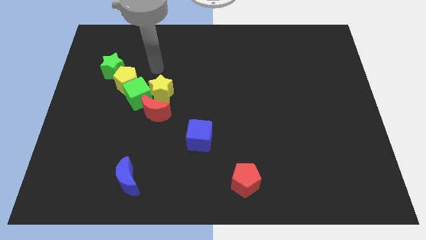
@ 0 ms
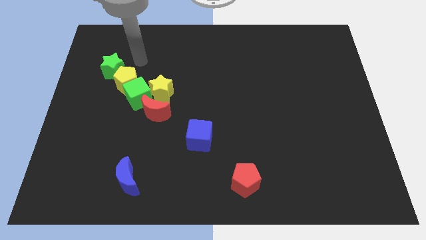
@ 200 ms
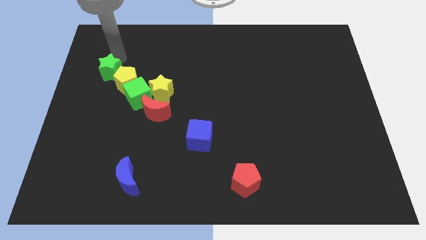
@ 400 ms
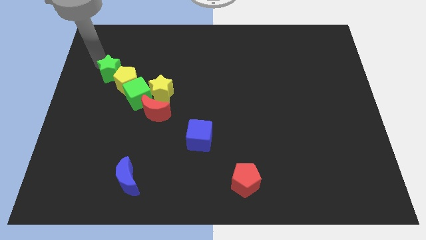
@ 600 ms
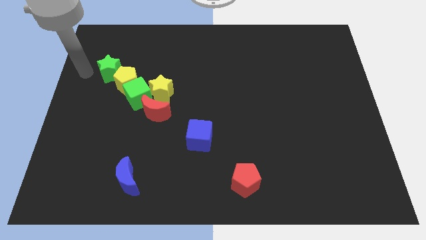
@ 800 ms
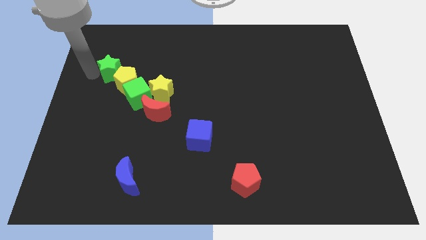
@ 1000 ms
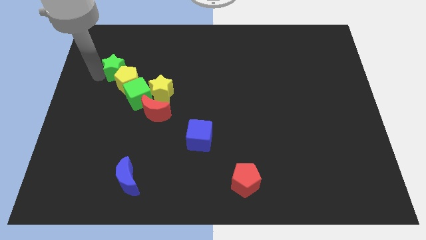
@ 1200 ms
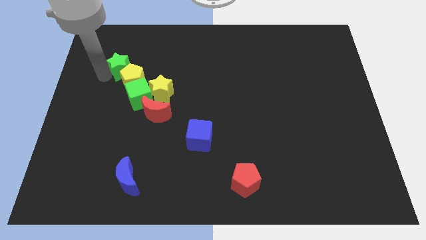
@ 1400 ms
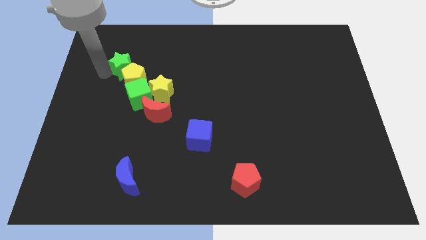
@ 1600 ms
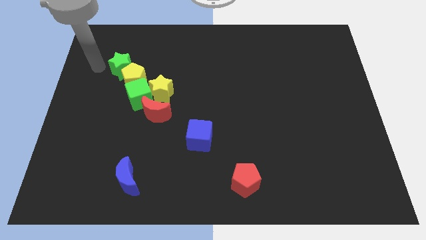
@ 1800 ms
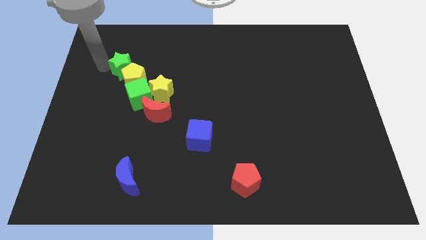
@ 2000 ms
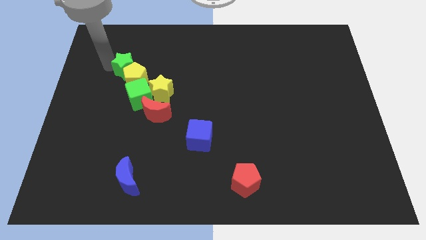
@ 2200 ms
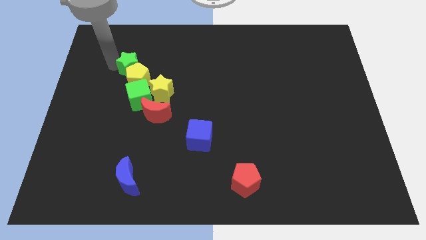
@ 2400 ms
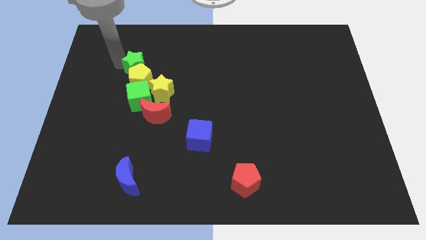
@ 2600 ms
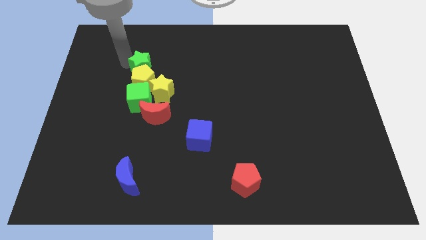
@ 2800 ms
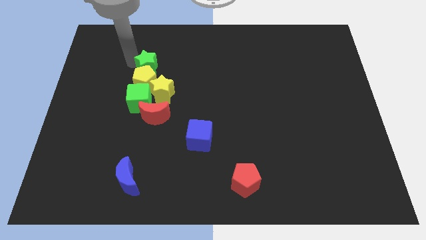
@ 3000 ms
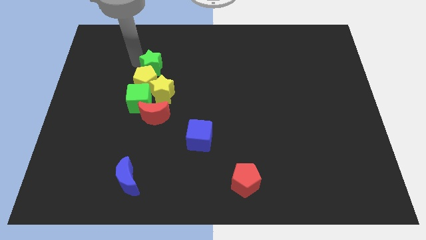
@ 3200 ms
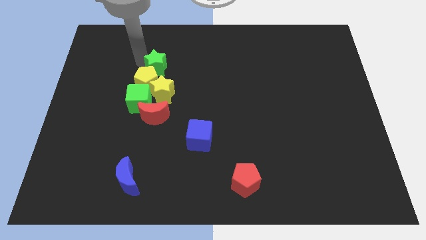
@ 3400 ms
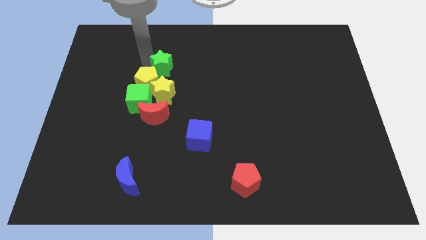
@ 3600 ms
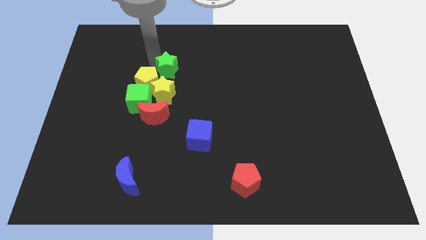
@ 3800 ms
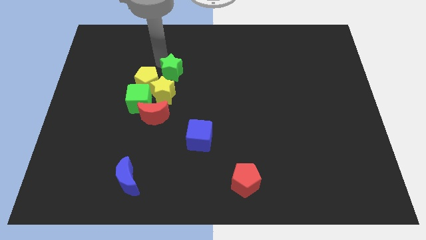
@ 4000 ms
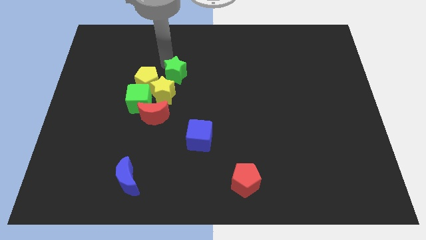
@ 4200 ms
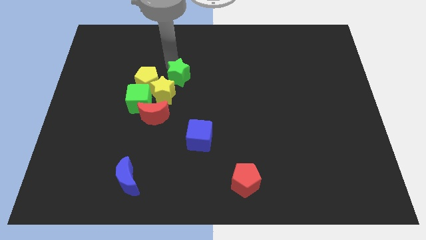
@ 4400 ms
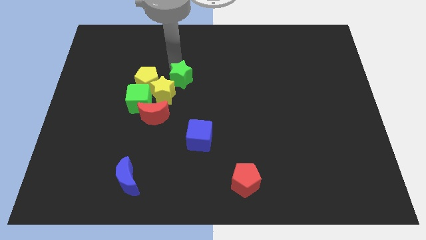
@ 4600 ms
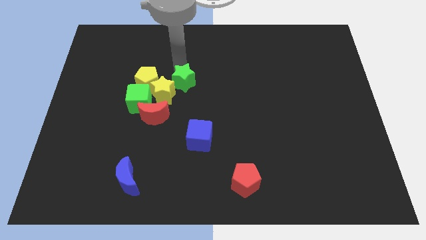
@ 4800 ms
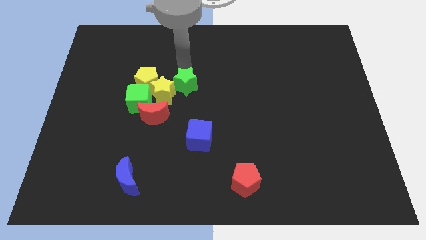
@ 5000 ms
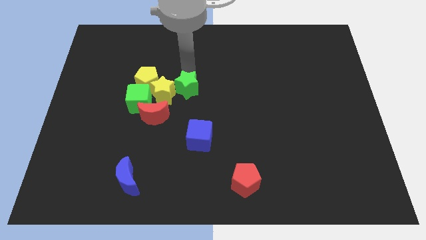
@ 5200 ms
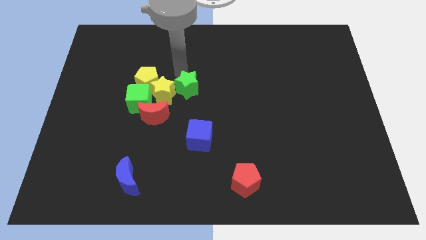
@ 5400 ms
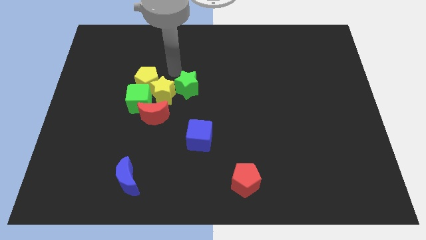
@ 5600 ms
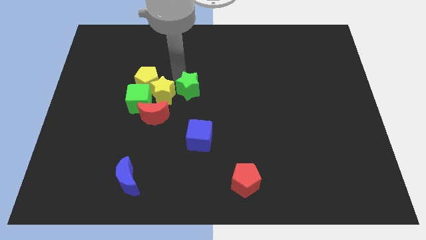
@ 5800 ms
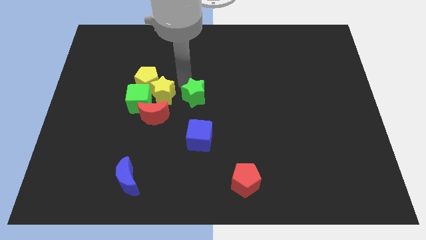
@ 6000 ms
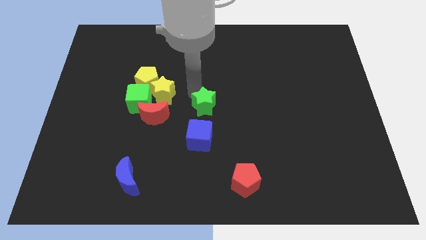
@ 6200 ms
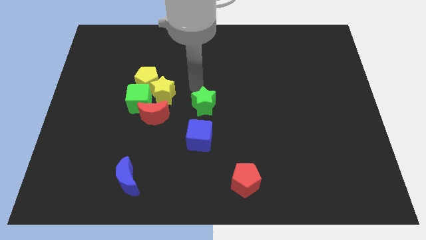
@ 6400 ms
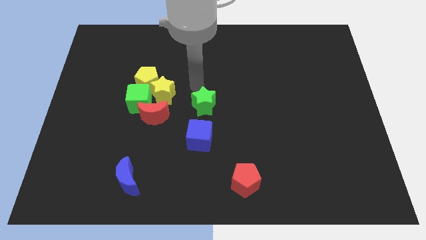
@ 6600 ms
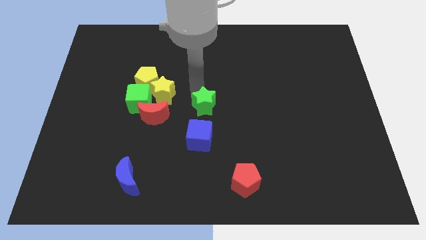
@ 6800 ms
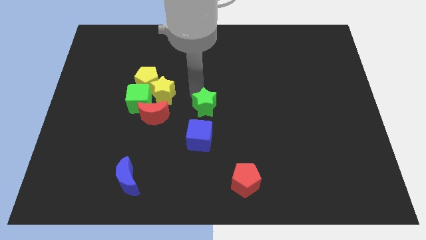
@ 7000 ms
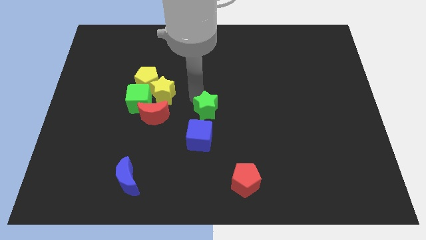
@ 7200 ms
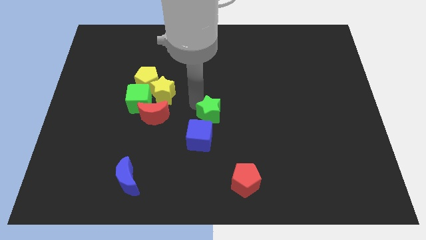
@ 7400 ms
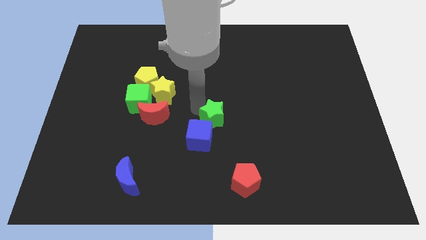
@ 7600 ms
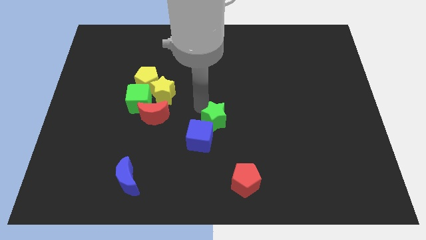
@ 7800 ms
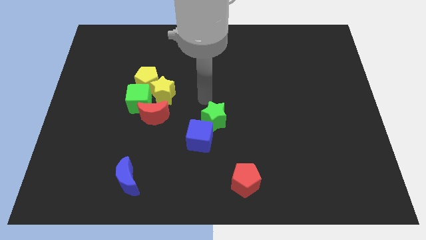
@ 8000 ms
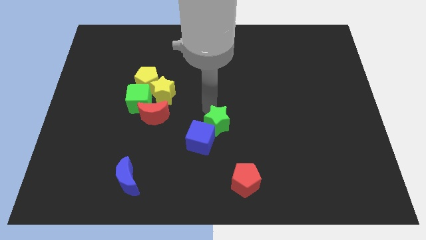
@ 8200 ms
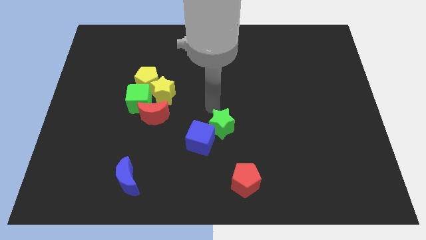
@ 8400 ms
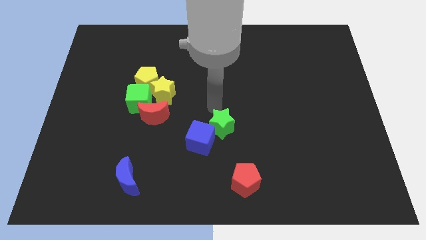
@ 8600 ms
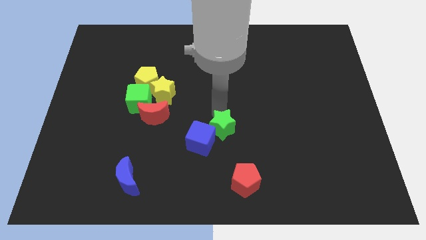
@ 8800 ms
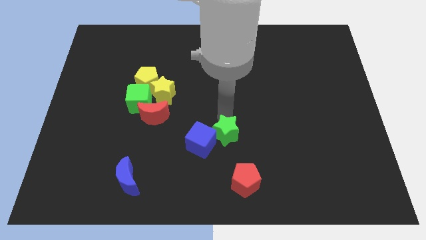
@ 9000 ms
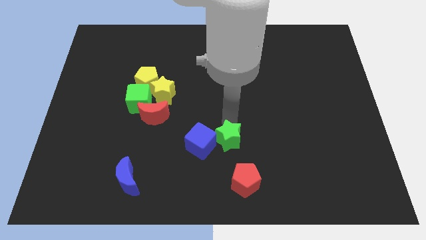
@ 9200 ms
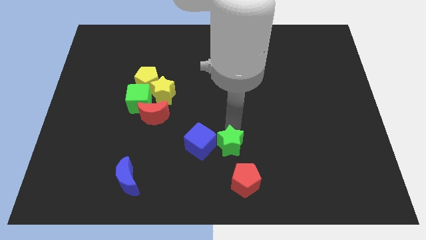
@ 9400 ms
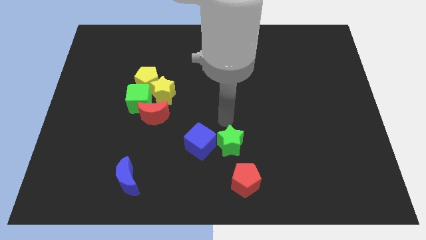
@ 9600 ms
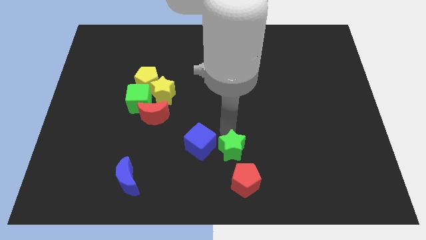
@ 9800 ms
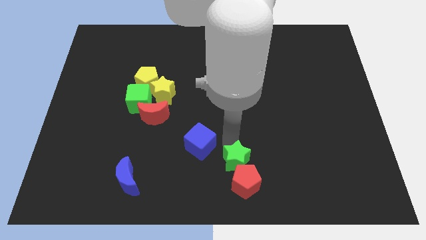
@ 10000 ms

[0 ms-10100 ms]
put the green star next to the red pentagon

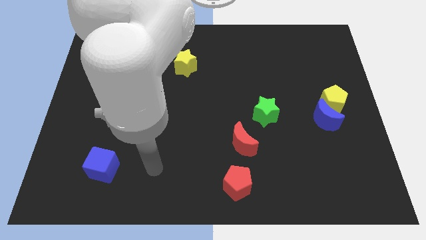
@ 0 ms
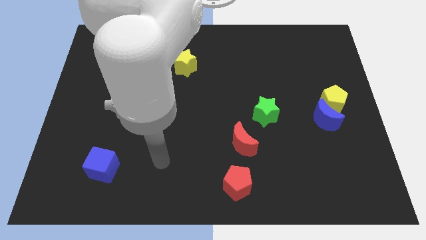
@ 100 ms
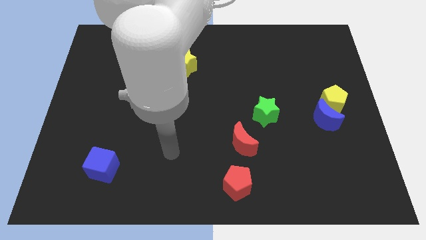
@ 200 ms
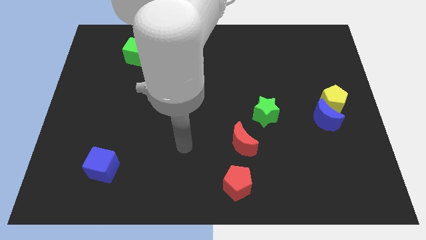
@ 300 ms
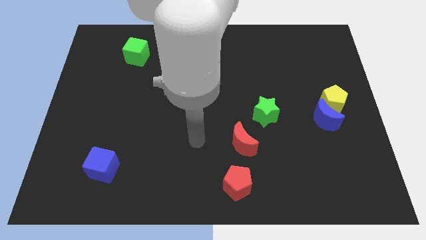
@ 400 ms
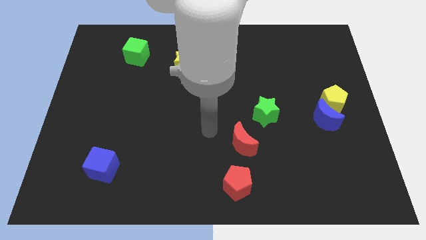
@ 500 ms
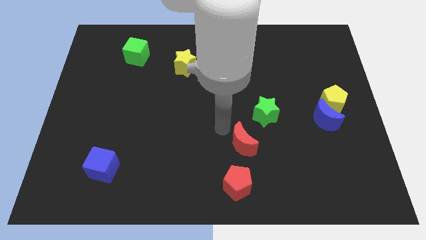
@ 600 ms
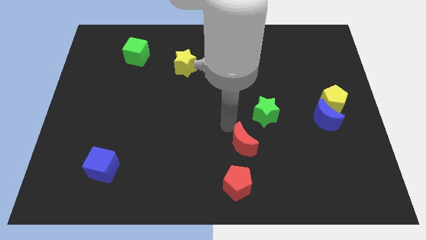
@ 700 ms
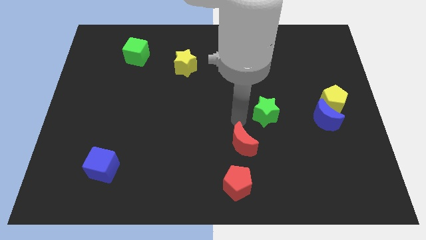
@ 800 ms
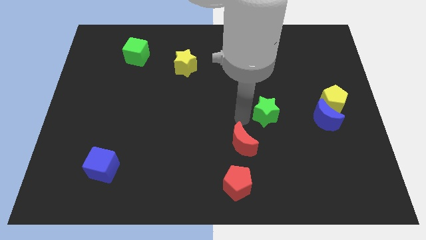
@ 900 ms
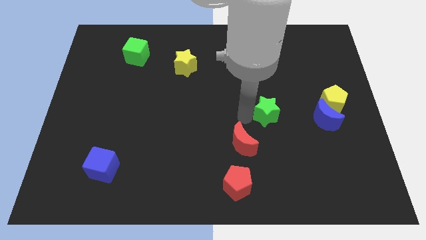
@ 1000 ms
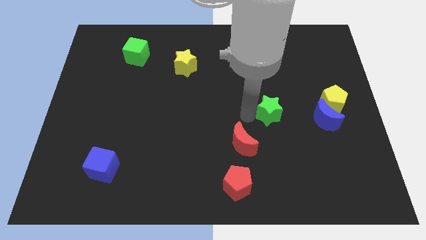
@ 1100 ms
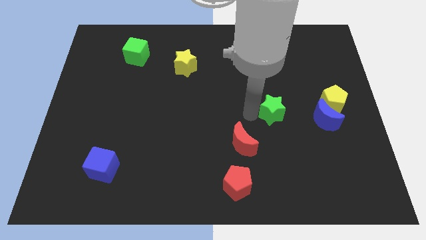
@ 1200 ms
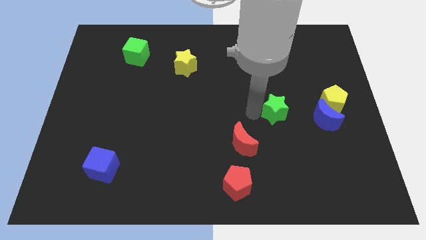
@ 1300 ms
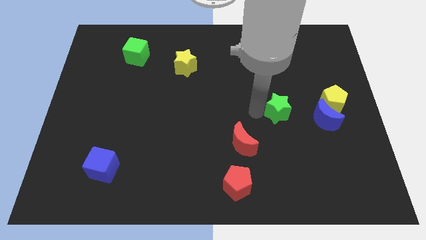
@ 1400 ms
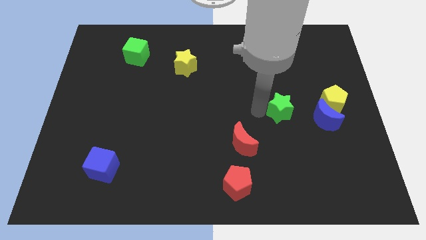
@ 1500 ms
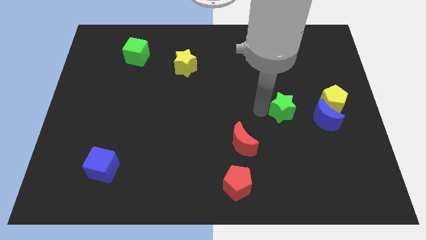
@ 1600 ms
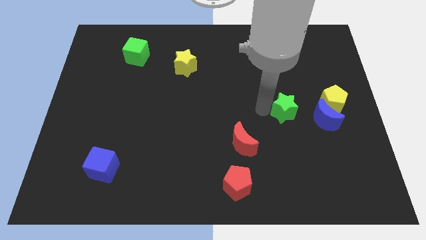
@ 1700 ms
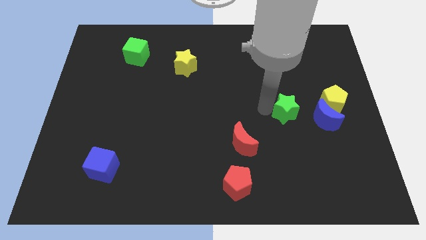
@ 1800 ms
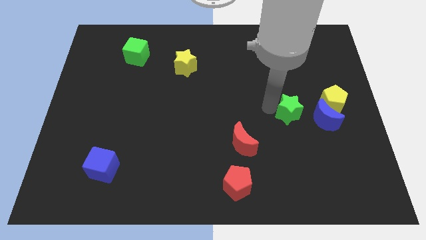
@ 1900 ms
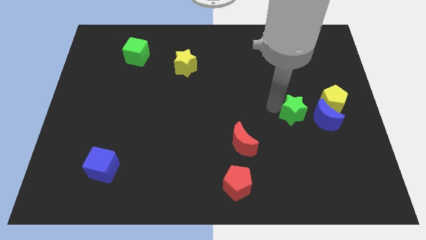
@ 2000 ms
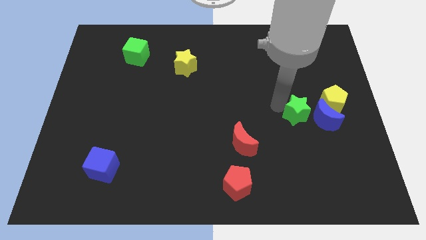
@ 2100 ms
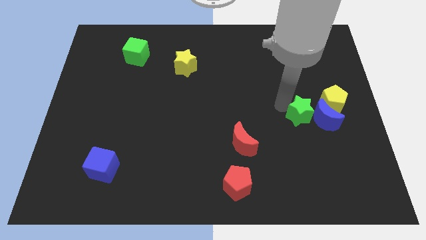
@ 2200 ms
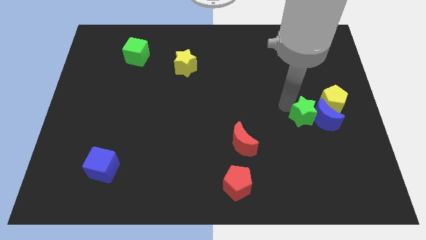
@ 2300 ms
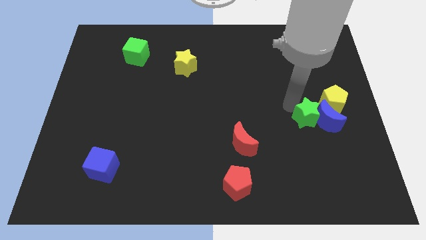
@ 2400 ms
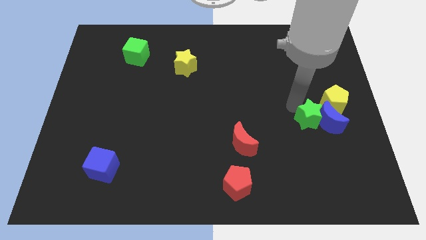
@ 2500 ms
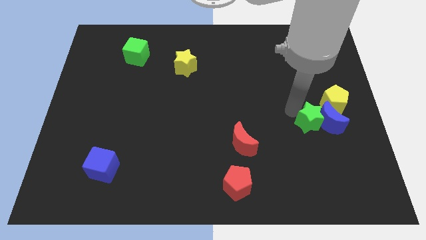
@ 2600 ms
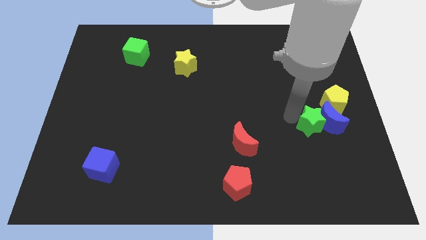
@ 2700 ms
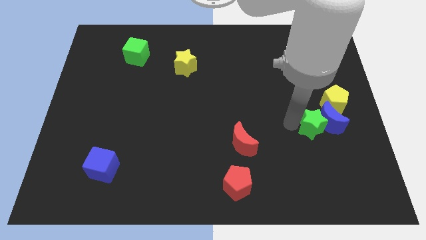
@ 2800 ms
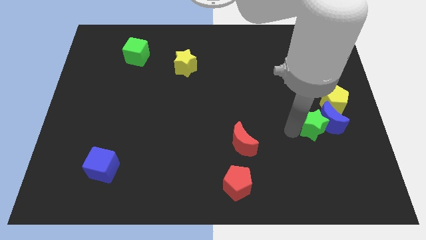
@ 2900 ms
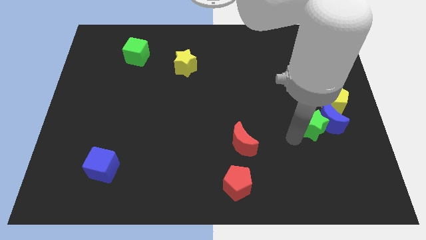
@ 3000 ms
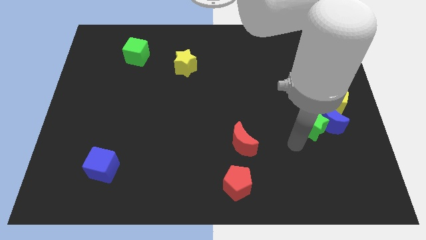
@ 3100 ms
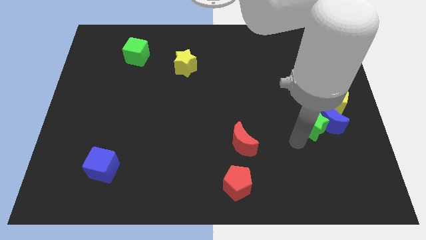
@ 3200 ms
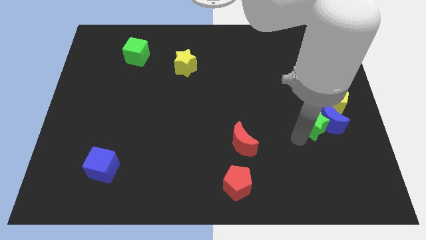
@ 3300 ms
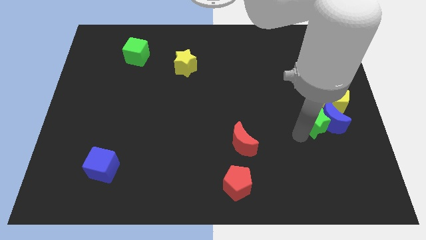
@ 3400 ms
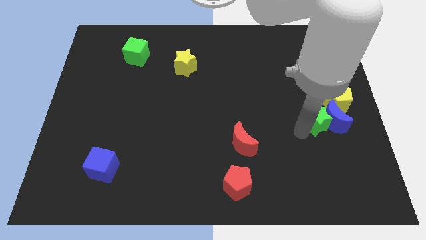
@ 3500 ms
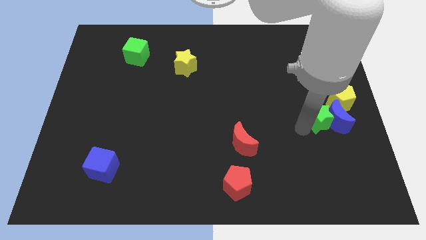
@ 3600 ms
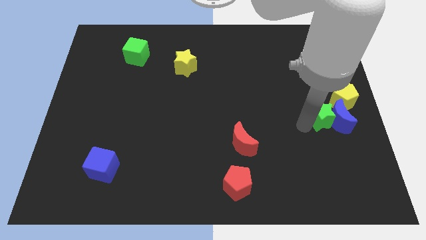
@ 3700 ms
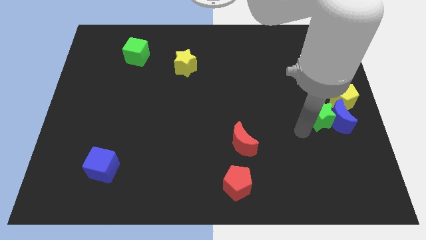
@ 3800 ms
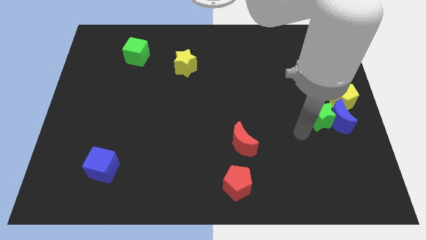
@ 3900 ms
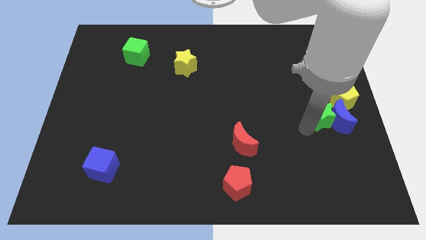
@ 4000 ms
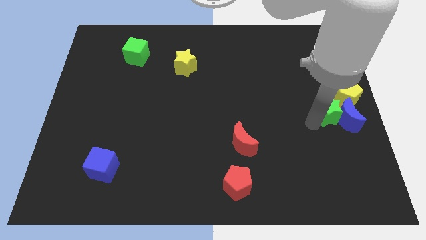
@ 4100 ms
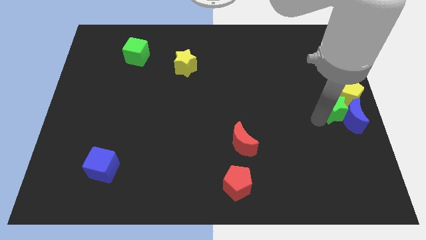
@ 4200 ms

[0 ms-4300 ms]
slide the green star to the yellow pentagon
